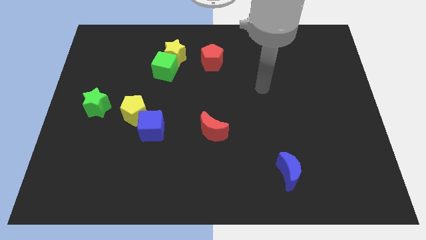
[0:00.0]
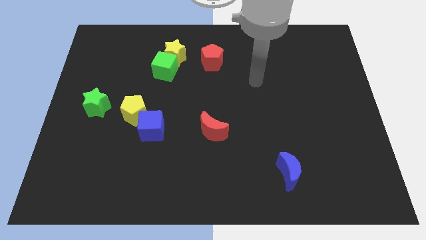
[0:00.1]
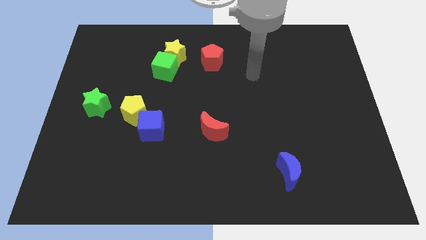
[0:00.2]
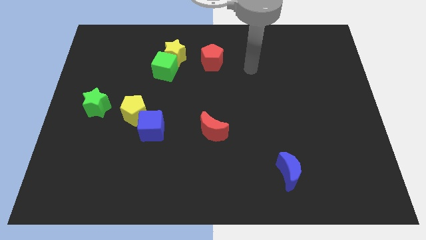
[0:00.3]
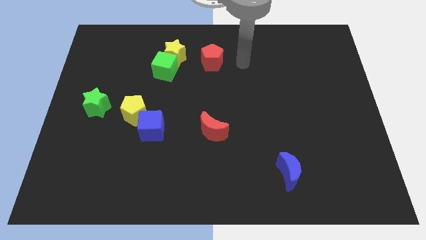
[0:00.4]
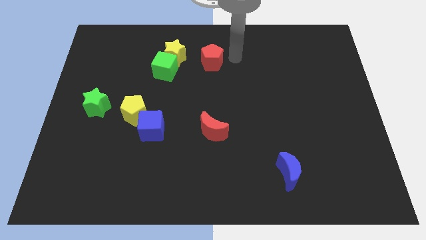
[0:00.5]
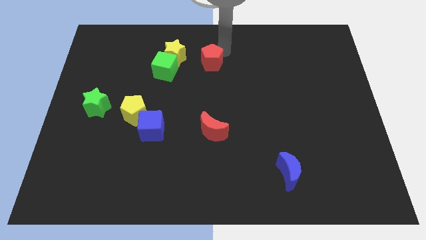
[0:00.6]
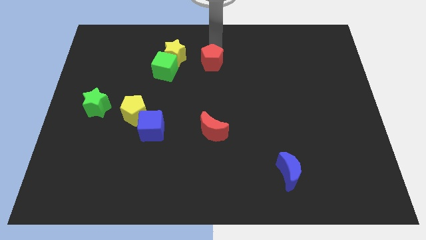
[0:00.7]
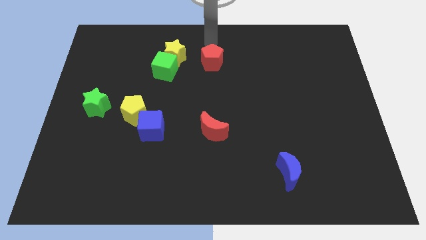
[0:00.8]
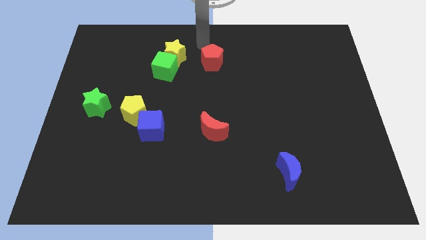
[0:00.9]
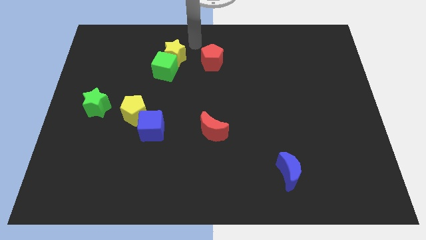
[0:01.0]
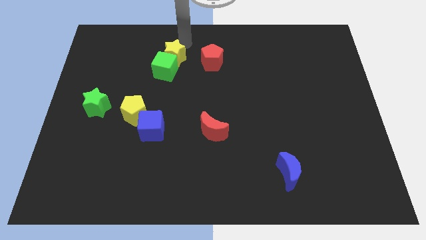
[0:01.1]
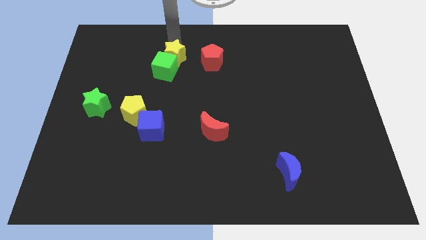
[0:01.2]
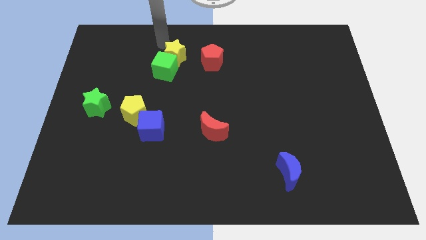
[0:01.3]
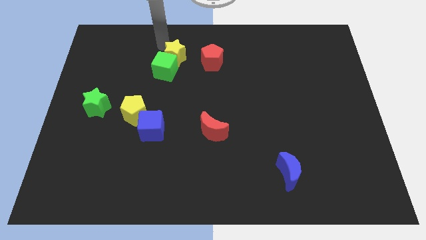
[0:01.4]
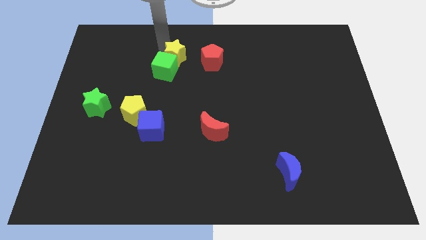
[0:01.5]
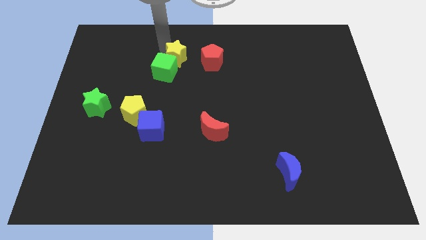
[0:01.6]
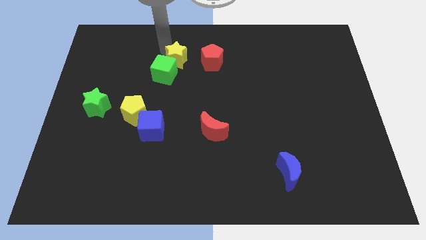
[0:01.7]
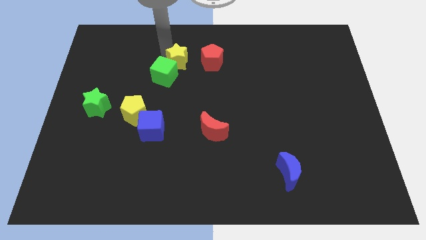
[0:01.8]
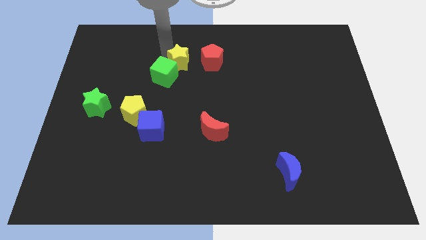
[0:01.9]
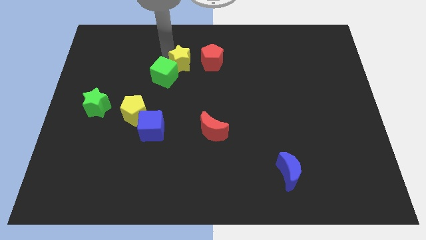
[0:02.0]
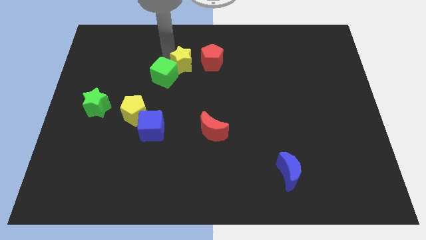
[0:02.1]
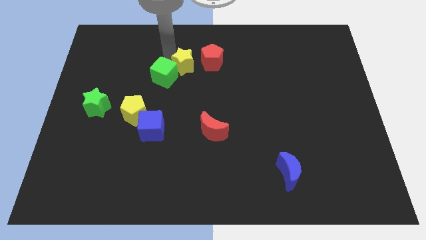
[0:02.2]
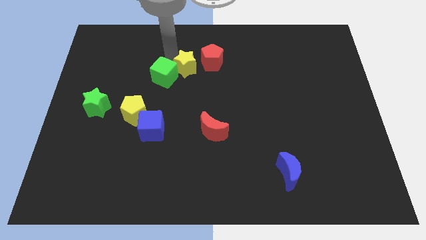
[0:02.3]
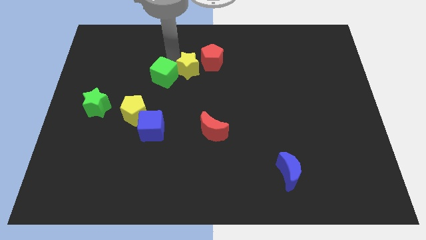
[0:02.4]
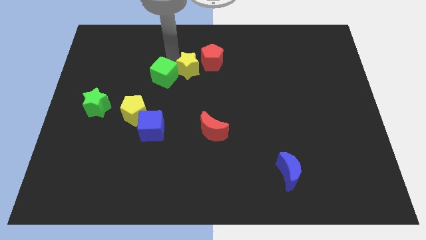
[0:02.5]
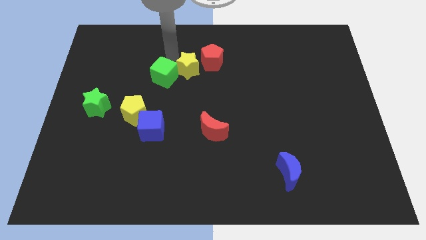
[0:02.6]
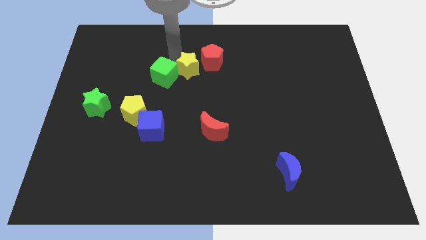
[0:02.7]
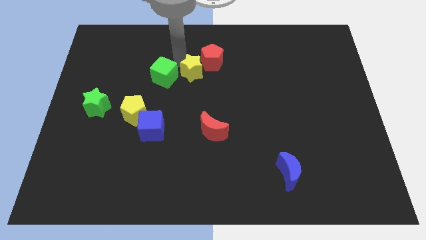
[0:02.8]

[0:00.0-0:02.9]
move the yellow star down and to the right slightly

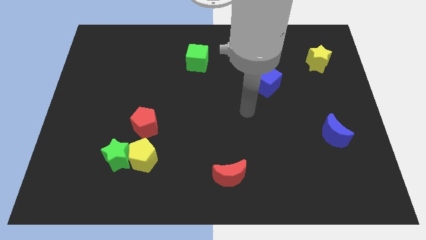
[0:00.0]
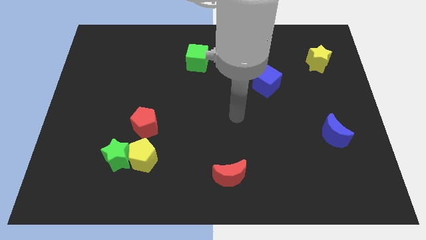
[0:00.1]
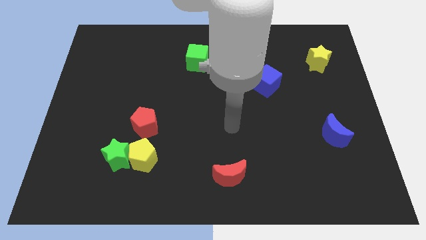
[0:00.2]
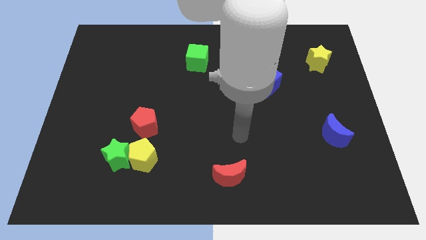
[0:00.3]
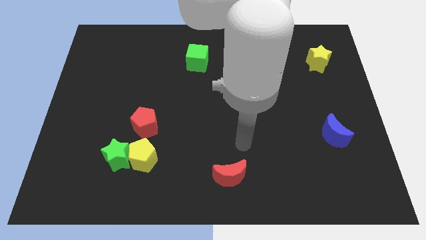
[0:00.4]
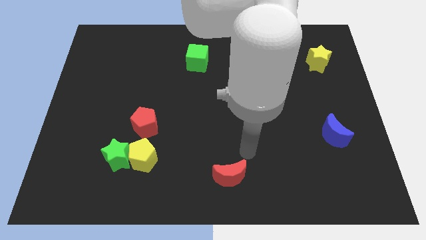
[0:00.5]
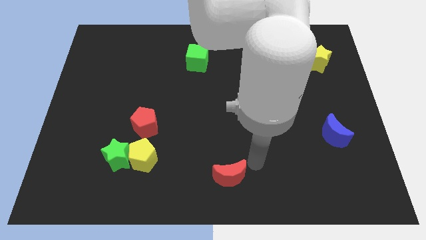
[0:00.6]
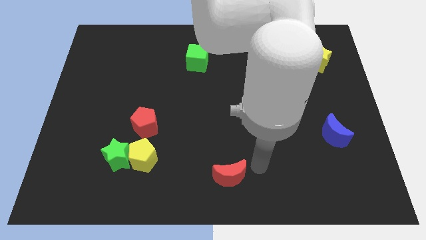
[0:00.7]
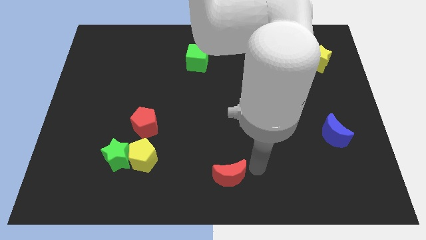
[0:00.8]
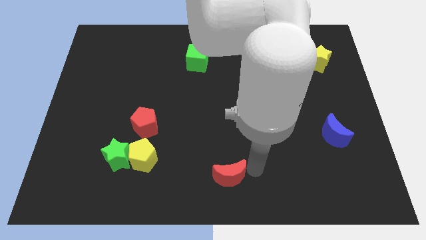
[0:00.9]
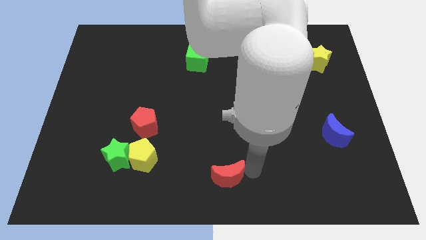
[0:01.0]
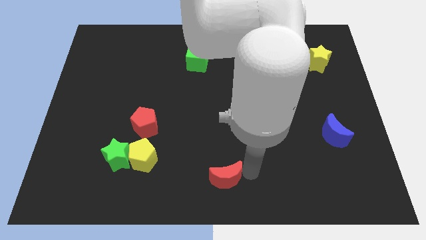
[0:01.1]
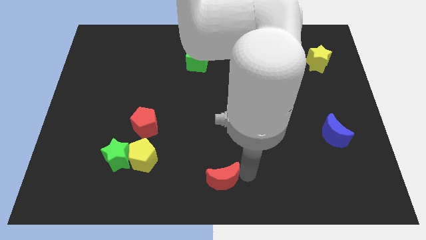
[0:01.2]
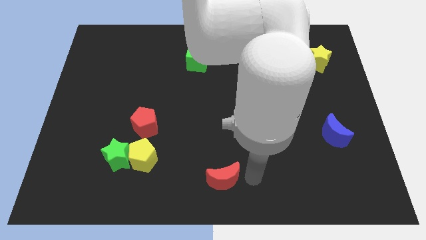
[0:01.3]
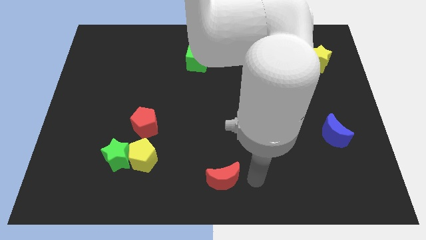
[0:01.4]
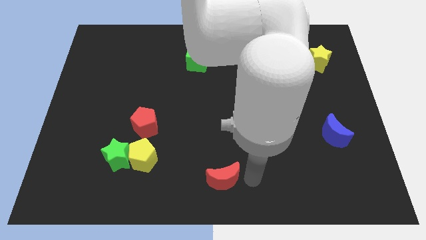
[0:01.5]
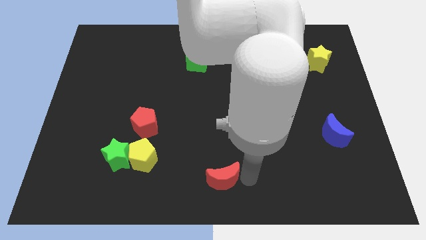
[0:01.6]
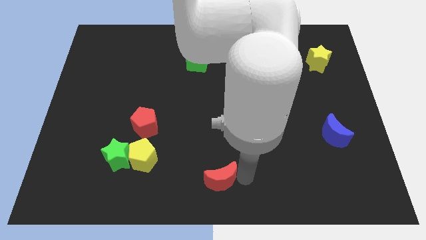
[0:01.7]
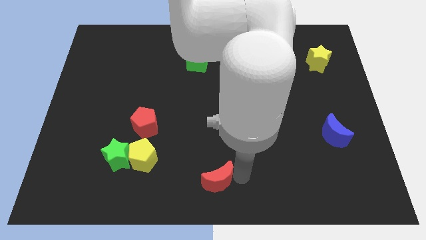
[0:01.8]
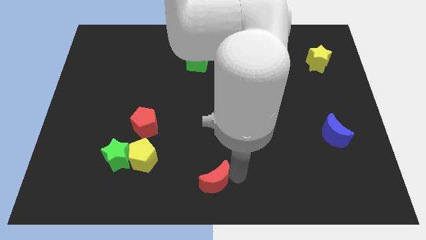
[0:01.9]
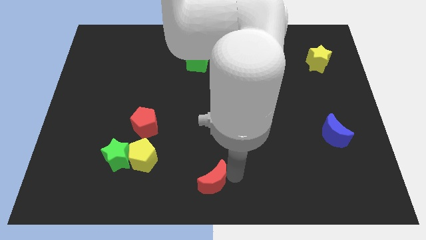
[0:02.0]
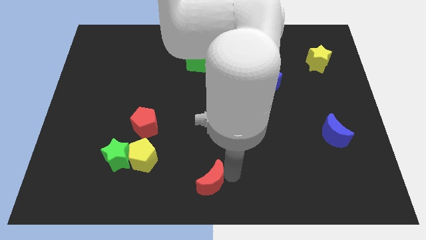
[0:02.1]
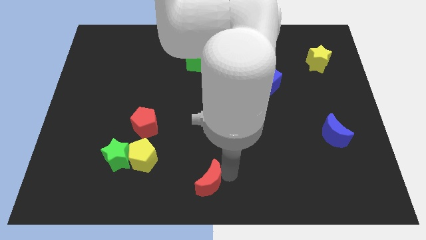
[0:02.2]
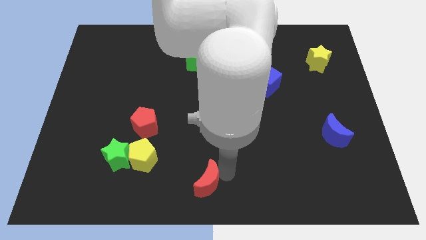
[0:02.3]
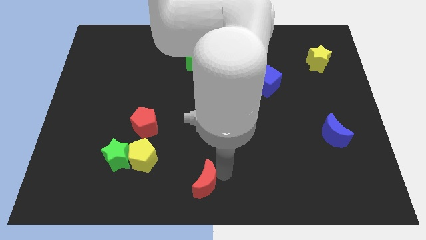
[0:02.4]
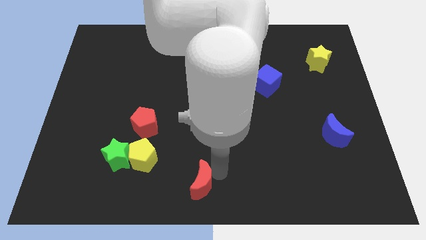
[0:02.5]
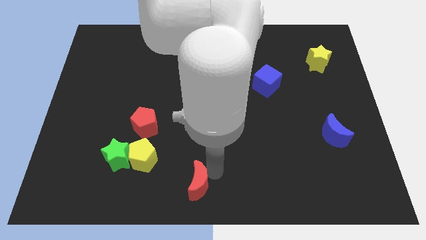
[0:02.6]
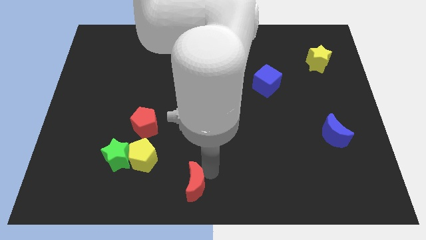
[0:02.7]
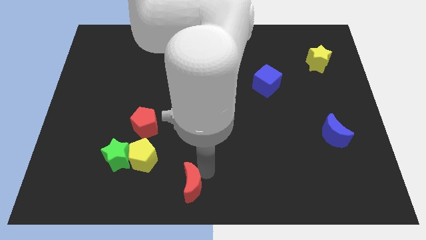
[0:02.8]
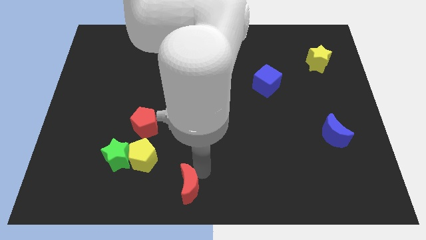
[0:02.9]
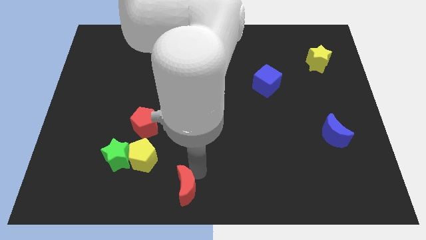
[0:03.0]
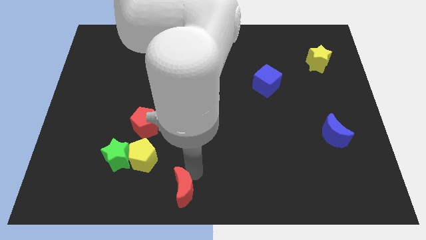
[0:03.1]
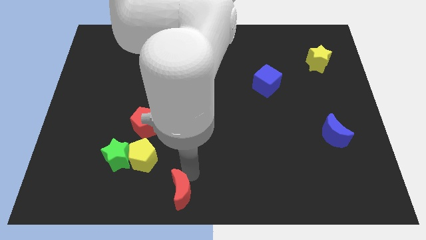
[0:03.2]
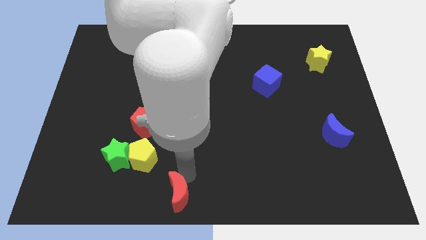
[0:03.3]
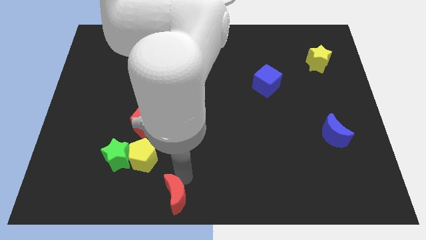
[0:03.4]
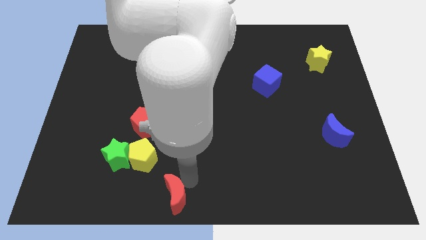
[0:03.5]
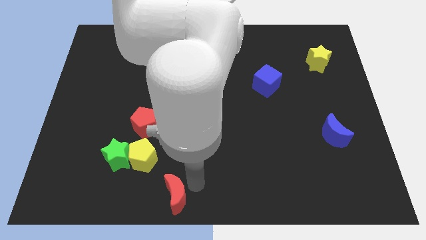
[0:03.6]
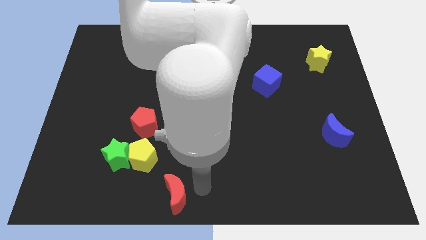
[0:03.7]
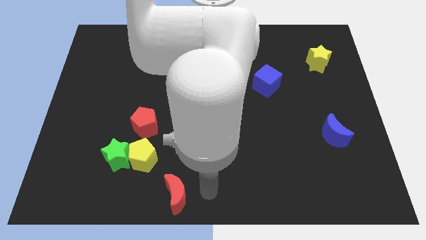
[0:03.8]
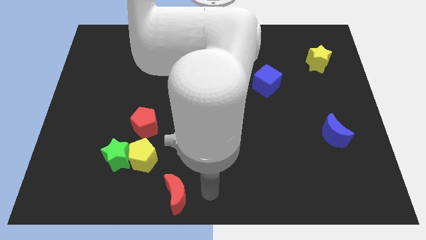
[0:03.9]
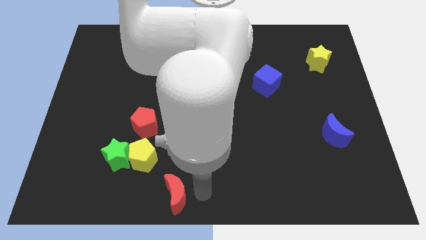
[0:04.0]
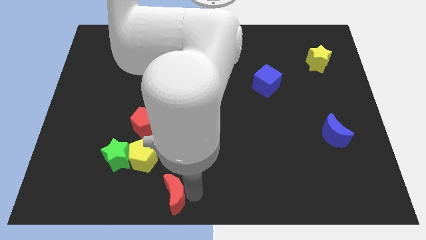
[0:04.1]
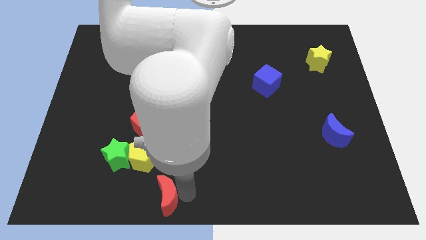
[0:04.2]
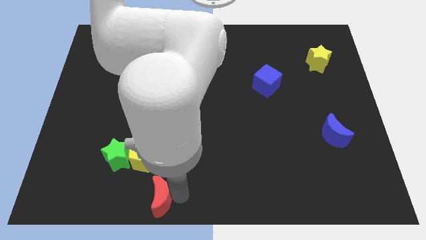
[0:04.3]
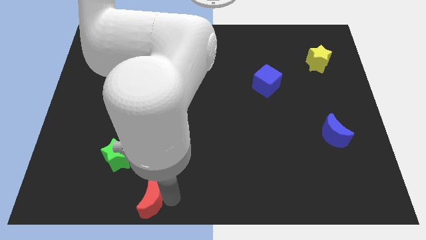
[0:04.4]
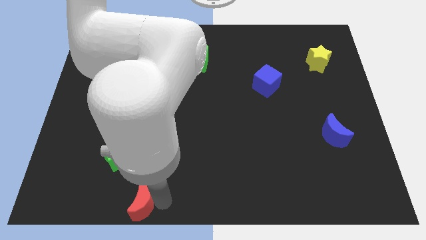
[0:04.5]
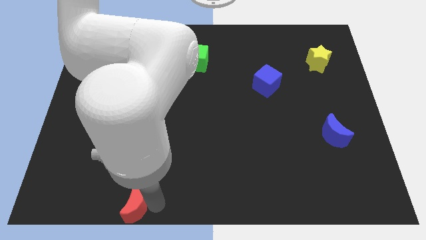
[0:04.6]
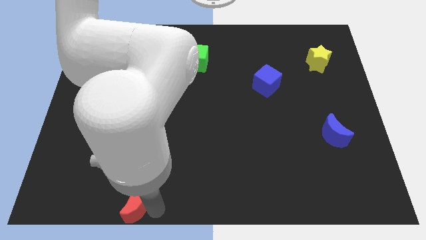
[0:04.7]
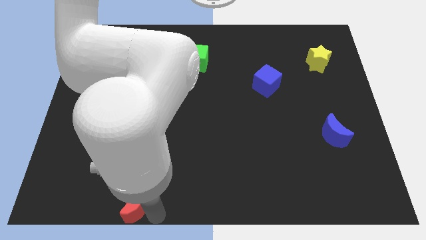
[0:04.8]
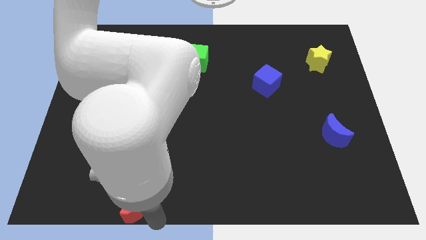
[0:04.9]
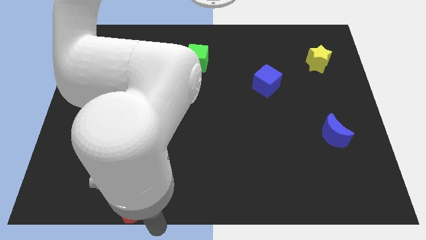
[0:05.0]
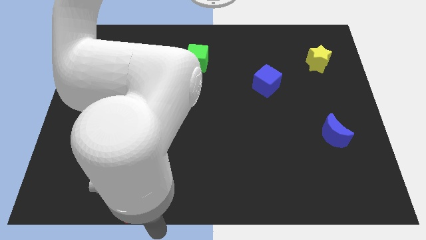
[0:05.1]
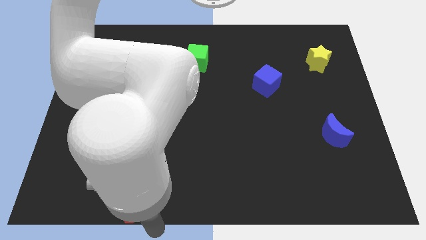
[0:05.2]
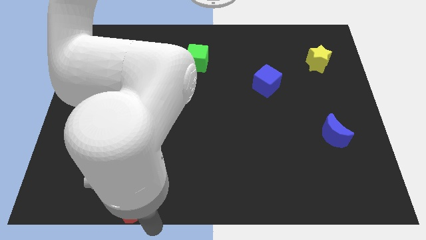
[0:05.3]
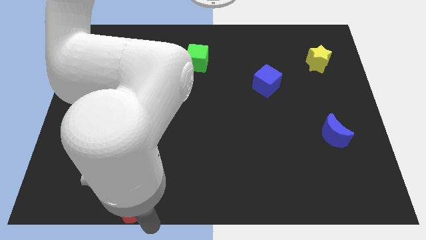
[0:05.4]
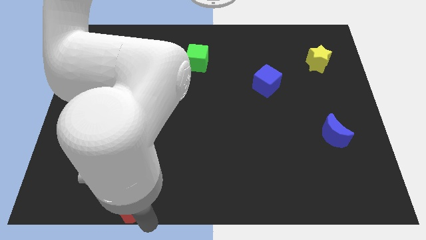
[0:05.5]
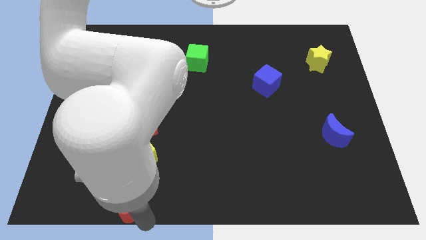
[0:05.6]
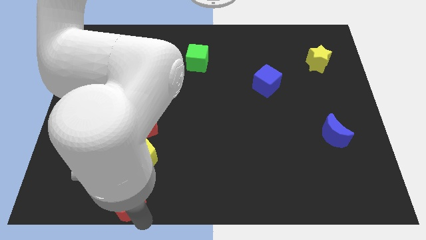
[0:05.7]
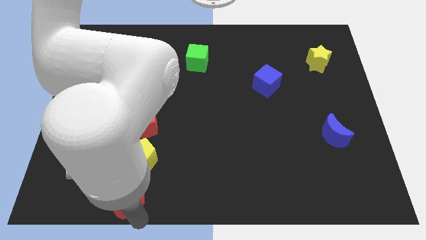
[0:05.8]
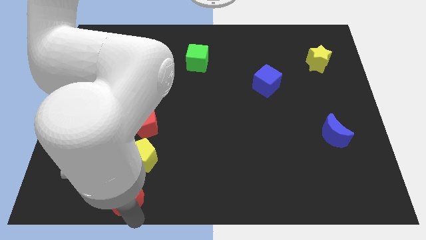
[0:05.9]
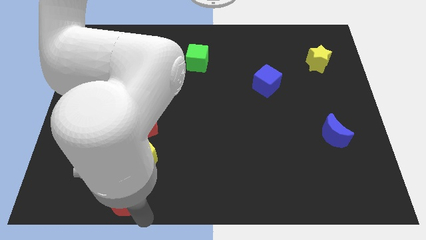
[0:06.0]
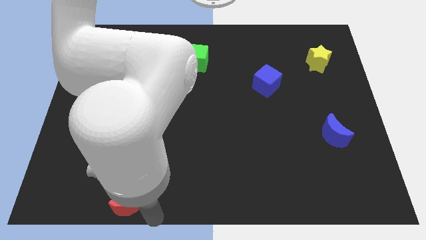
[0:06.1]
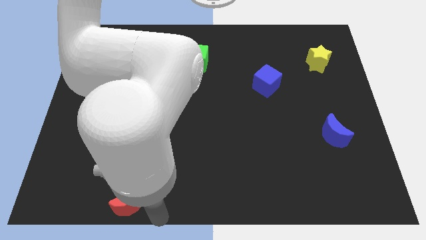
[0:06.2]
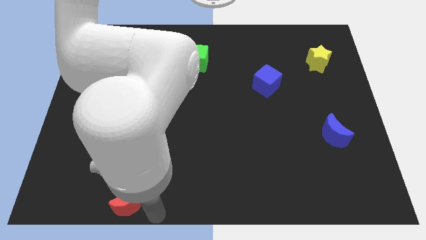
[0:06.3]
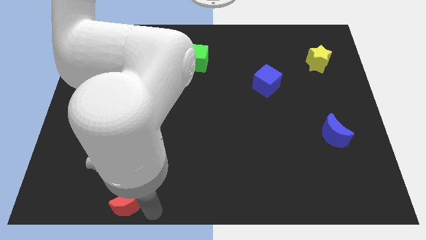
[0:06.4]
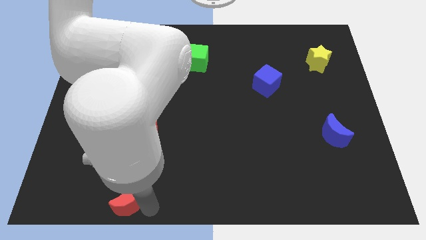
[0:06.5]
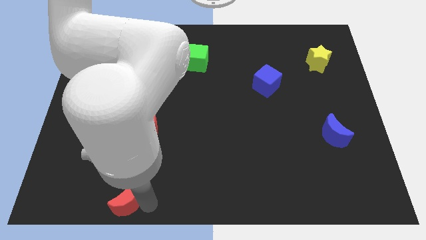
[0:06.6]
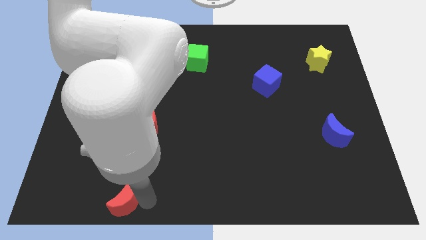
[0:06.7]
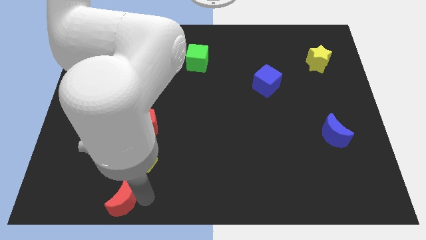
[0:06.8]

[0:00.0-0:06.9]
move the red moon to the left
